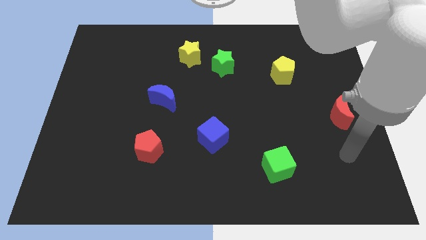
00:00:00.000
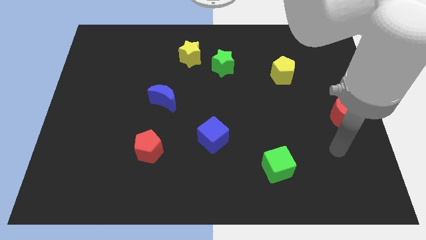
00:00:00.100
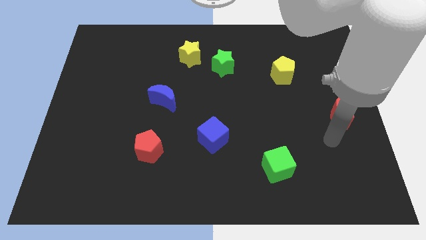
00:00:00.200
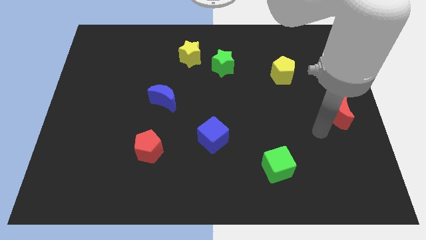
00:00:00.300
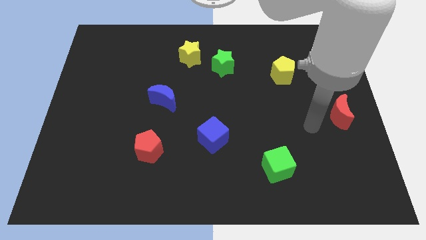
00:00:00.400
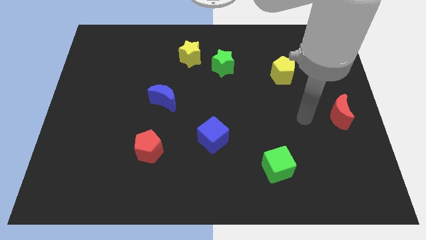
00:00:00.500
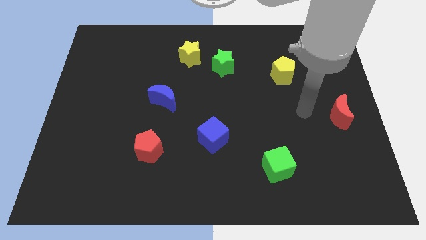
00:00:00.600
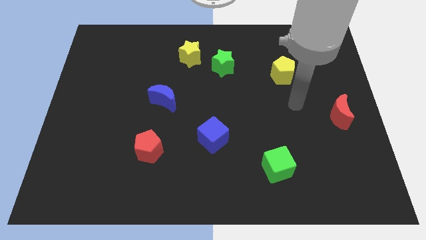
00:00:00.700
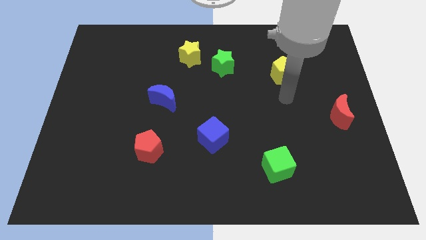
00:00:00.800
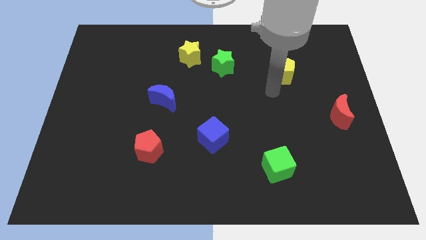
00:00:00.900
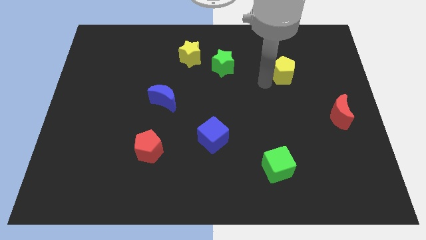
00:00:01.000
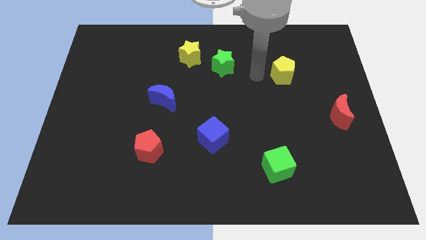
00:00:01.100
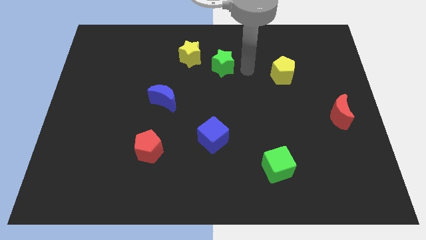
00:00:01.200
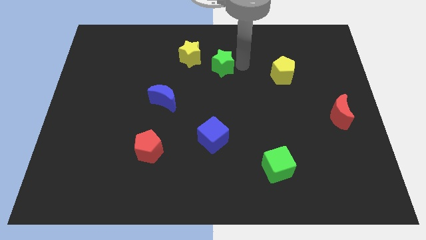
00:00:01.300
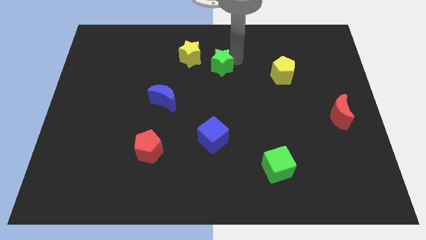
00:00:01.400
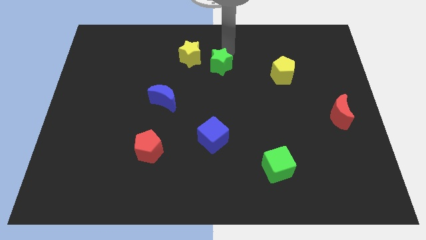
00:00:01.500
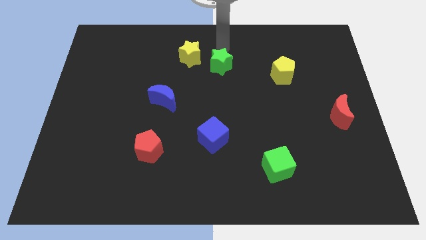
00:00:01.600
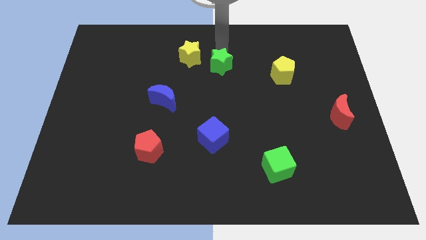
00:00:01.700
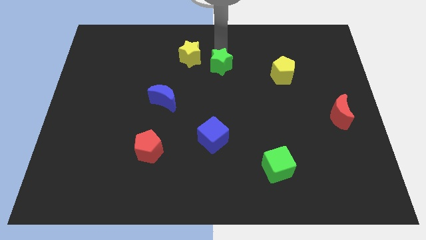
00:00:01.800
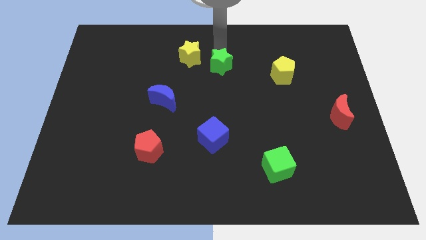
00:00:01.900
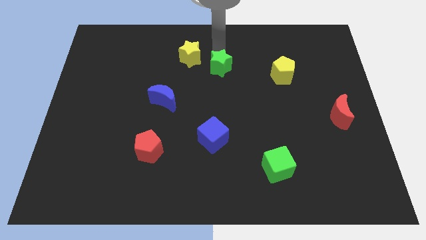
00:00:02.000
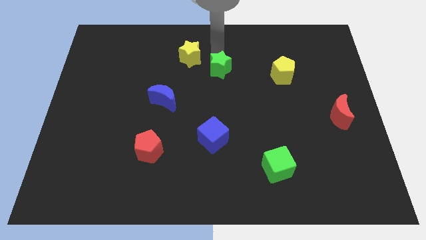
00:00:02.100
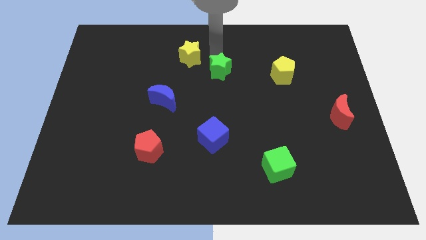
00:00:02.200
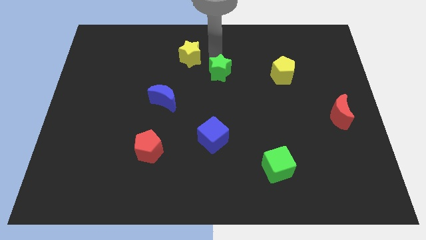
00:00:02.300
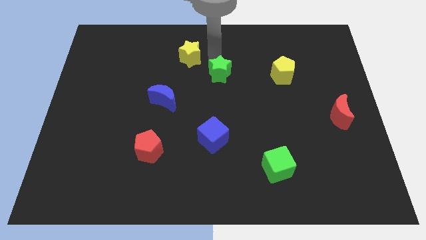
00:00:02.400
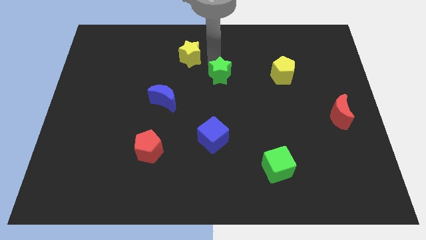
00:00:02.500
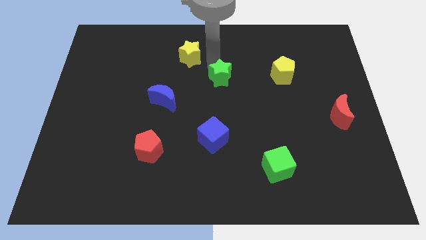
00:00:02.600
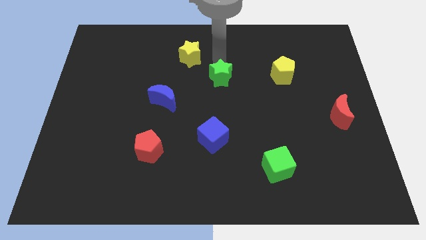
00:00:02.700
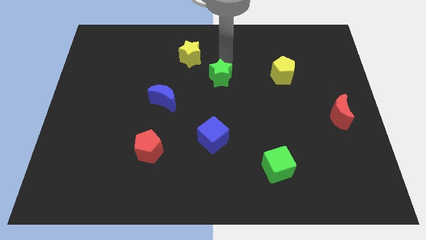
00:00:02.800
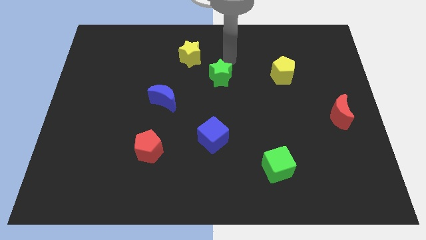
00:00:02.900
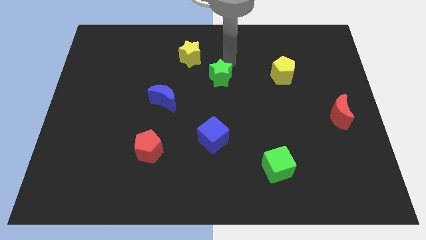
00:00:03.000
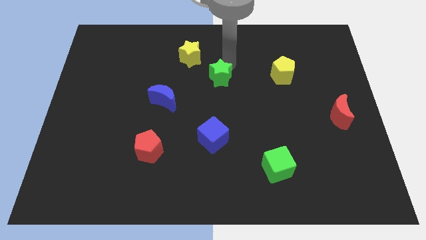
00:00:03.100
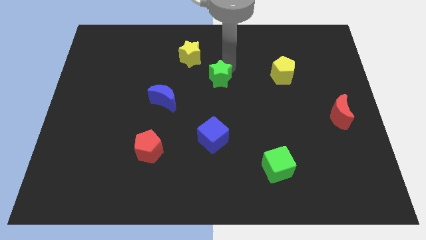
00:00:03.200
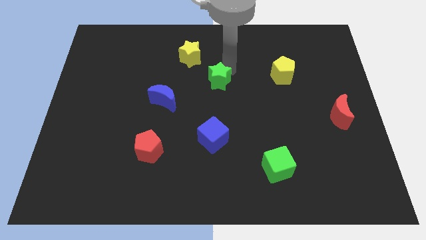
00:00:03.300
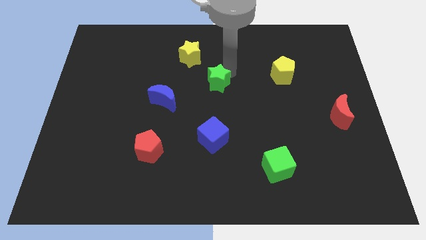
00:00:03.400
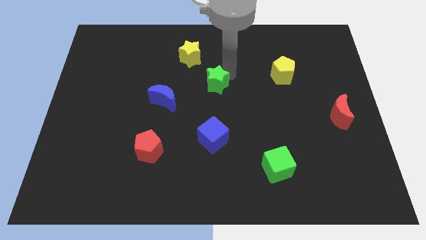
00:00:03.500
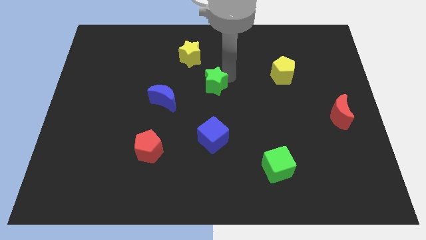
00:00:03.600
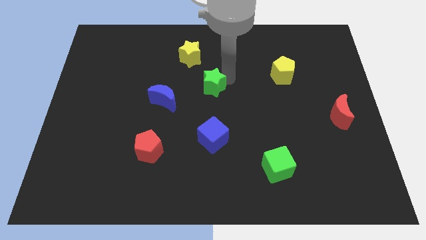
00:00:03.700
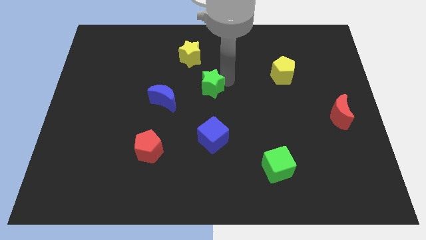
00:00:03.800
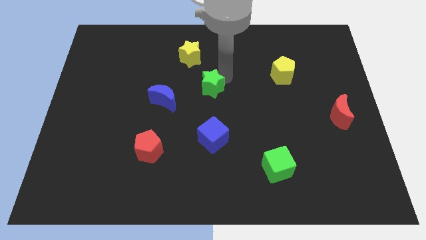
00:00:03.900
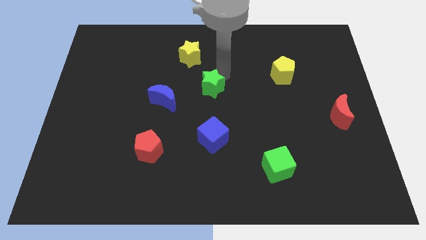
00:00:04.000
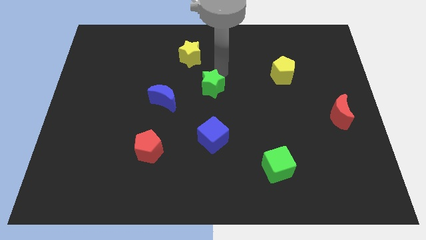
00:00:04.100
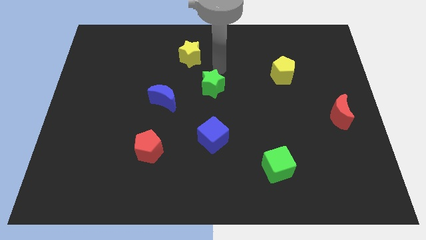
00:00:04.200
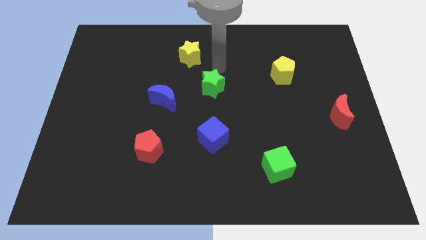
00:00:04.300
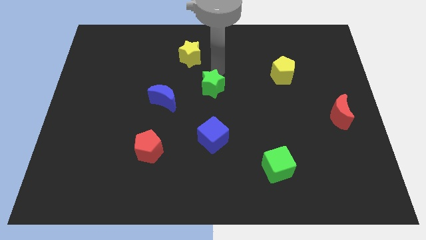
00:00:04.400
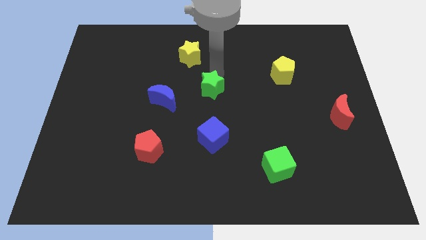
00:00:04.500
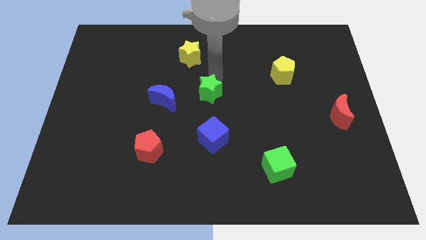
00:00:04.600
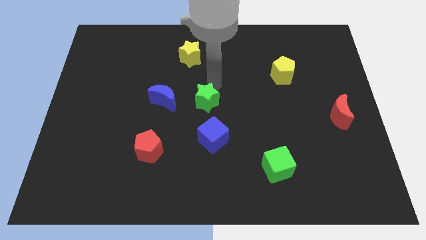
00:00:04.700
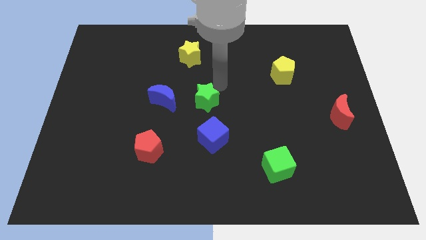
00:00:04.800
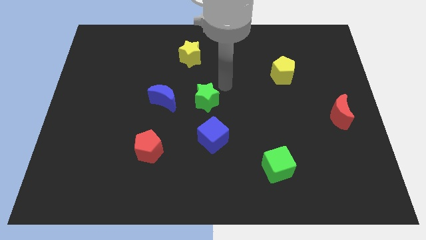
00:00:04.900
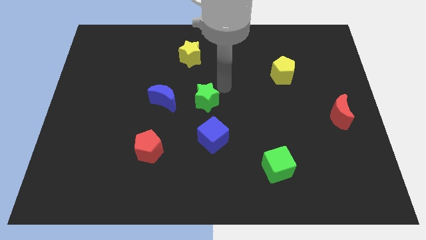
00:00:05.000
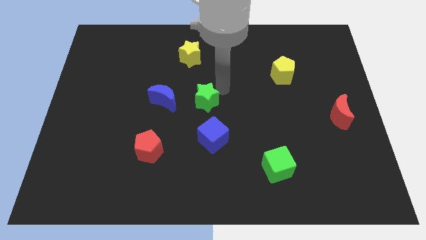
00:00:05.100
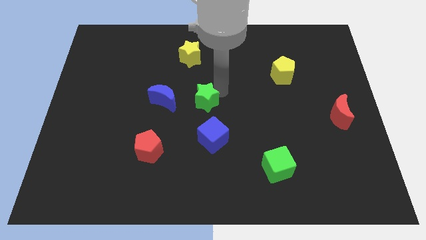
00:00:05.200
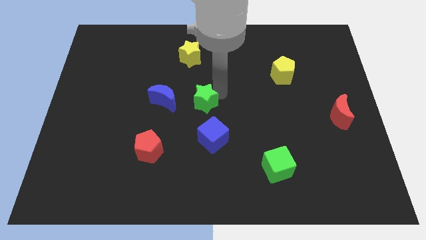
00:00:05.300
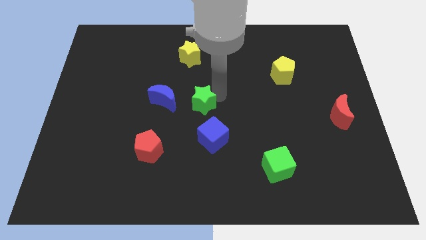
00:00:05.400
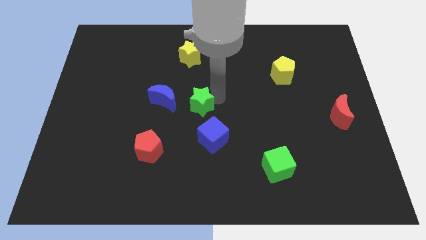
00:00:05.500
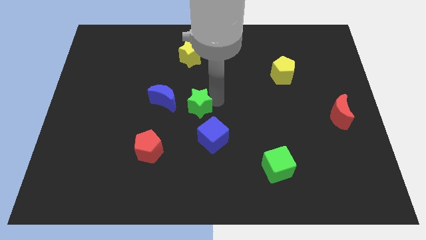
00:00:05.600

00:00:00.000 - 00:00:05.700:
slide the green star diagonally down and to the right of the blue moon
